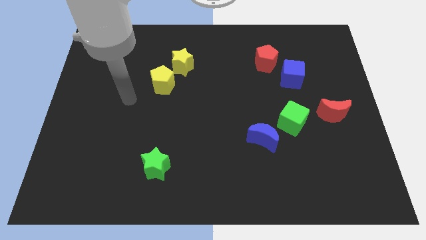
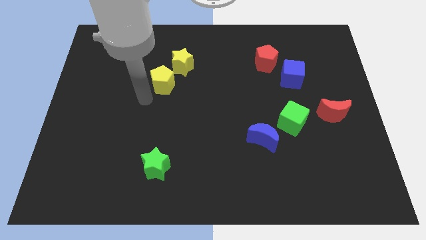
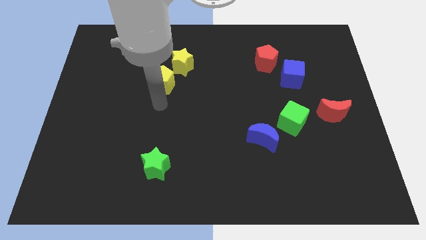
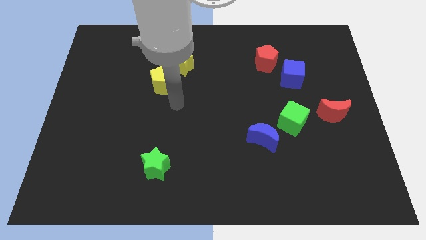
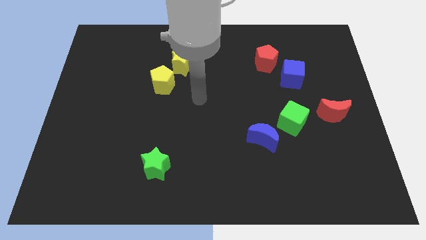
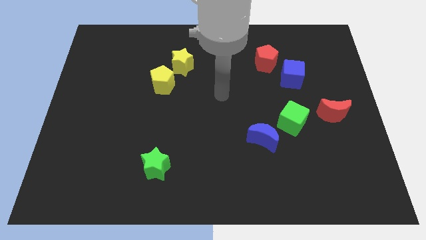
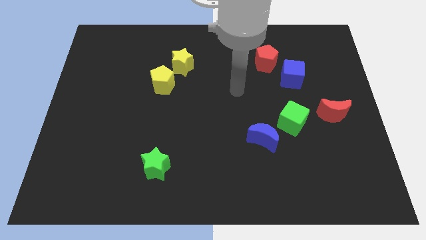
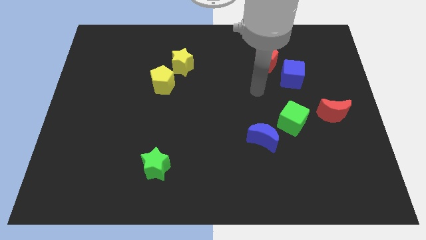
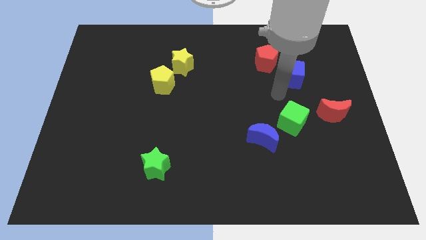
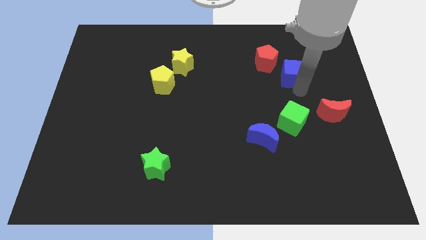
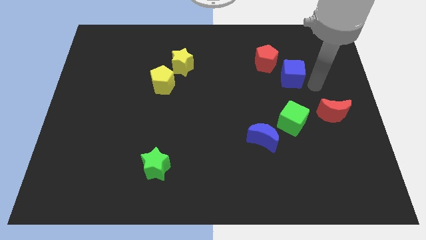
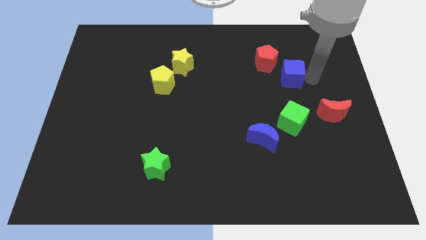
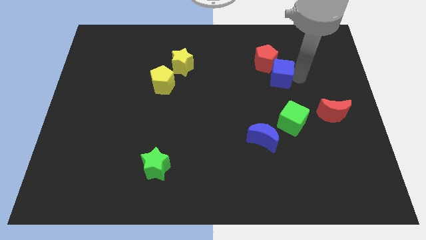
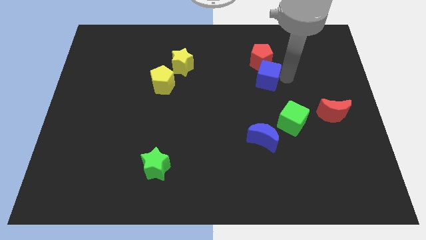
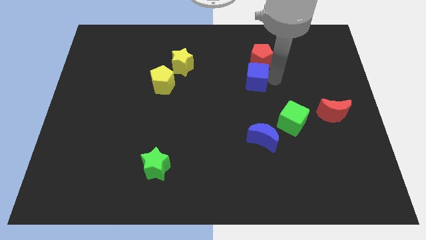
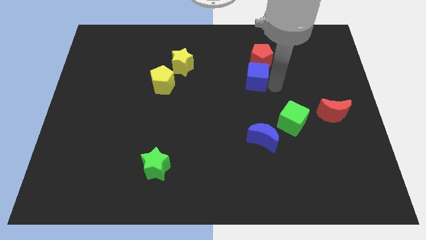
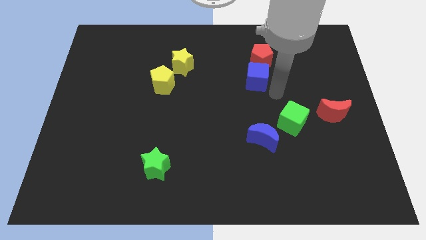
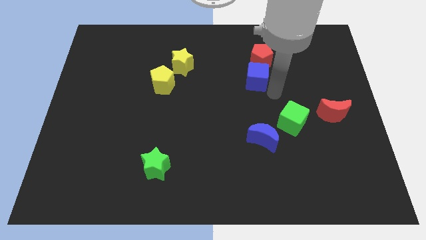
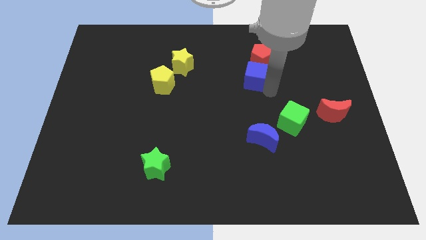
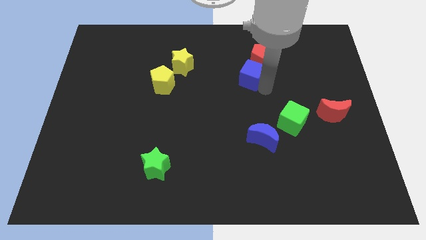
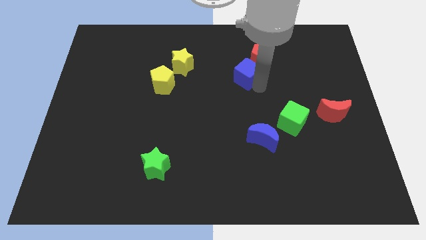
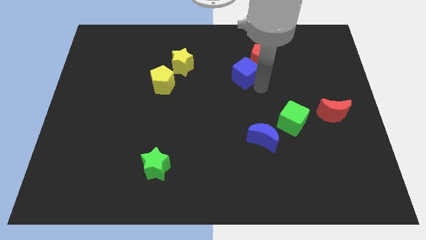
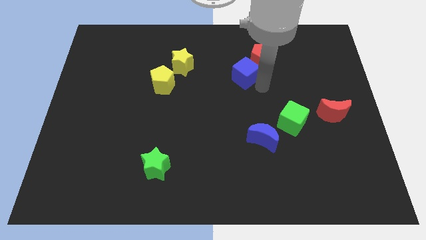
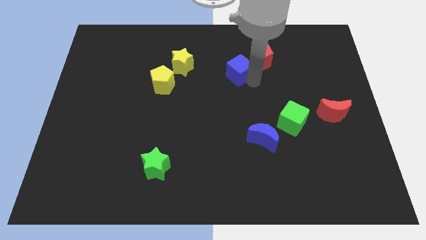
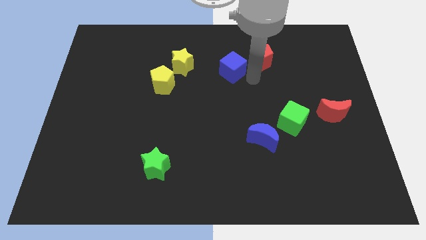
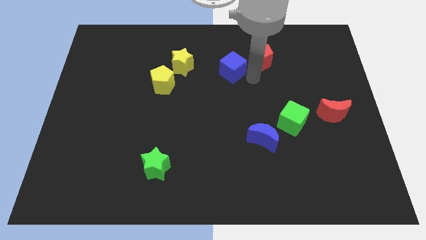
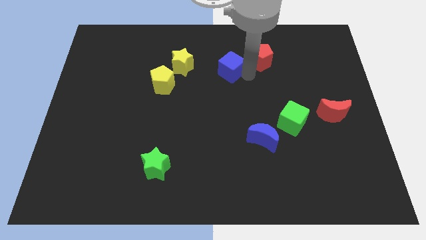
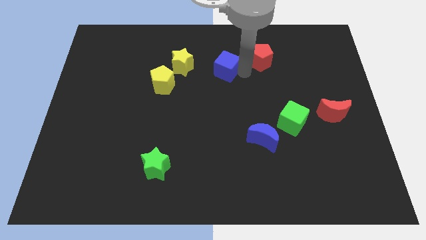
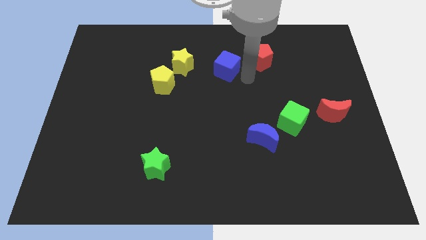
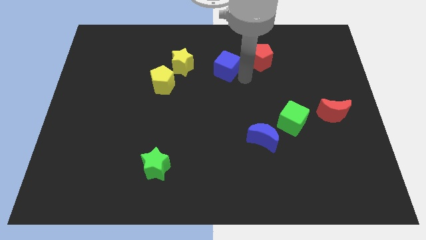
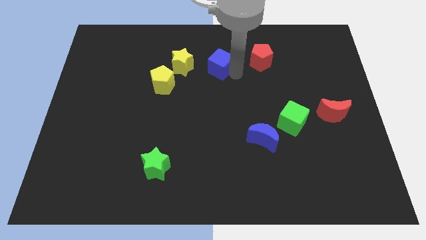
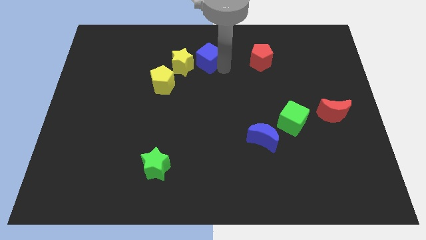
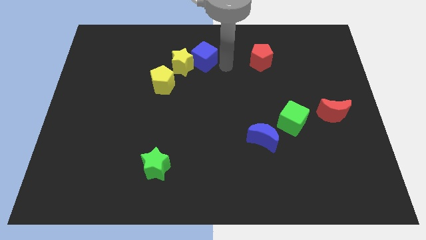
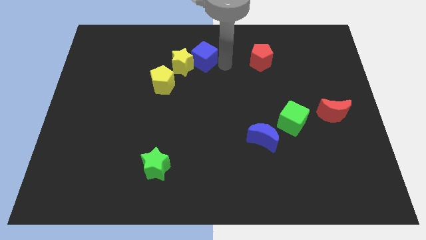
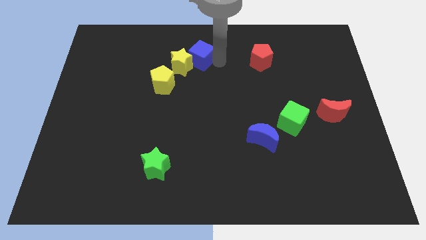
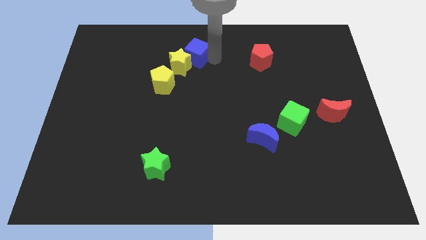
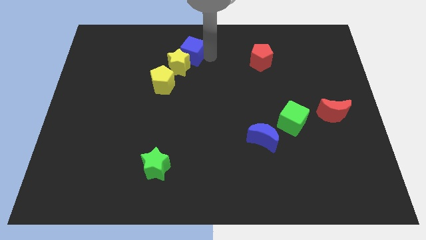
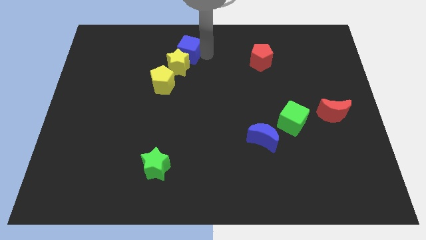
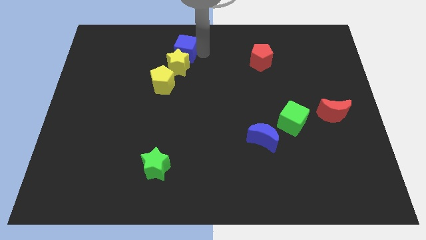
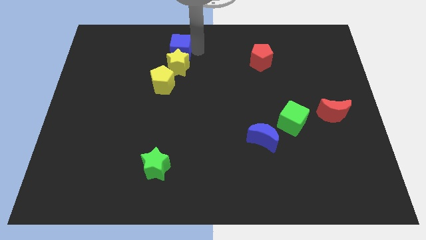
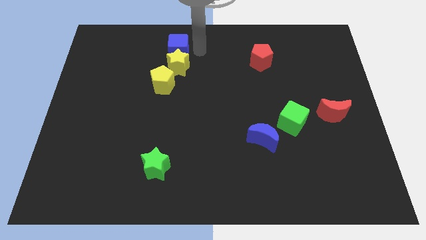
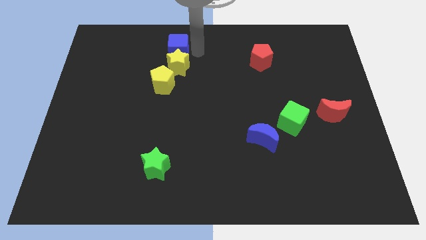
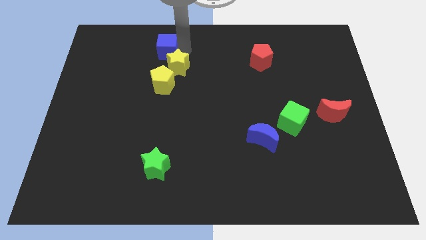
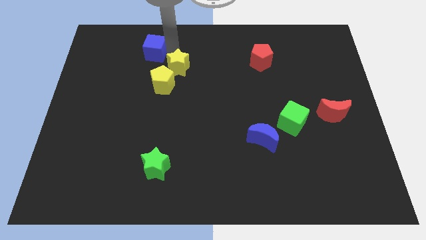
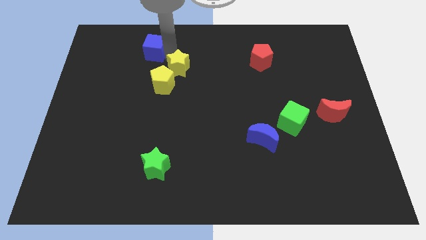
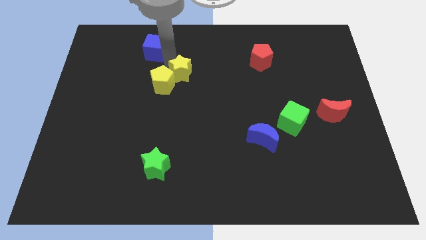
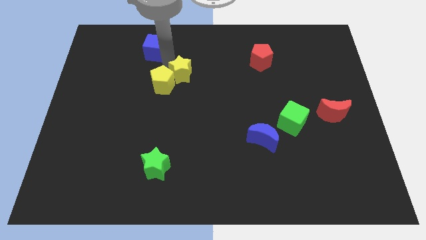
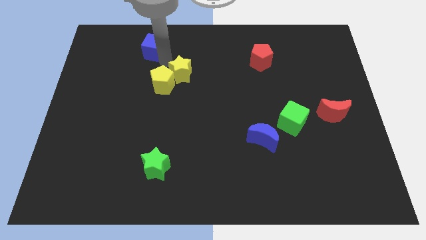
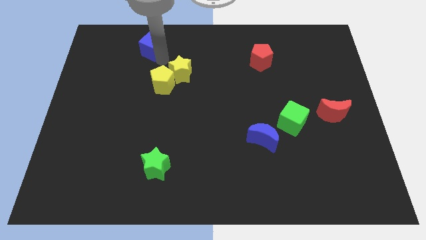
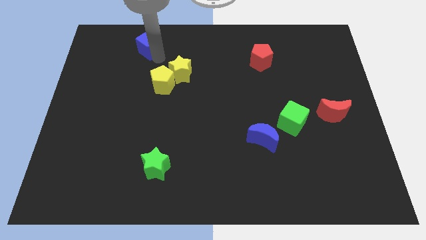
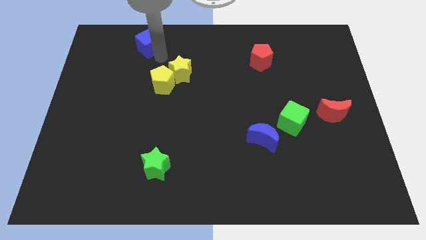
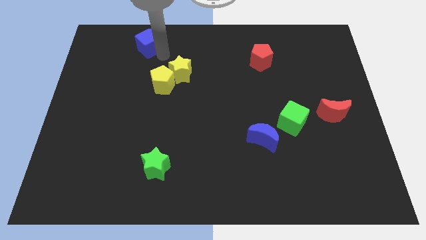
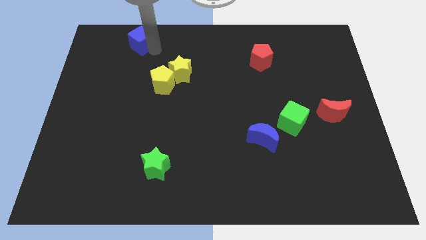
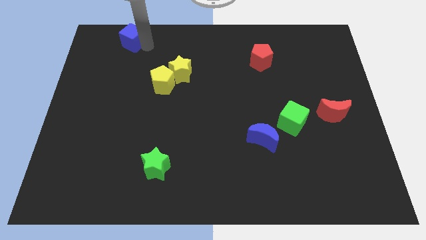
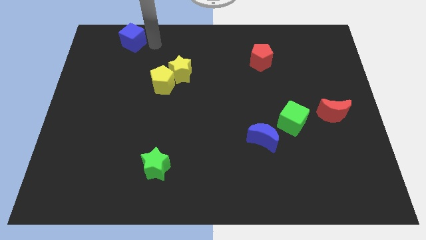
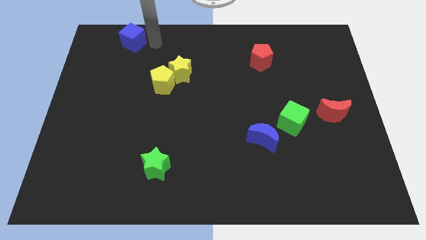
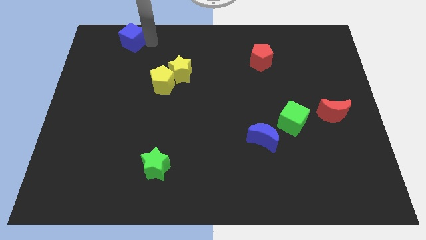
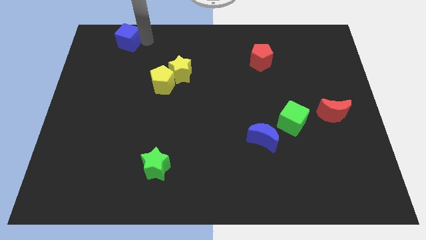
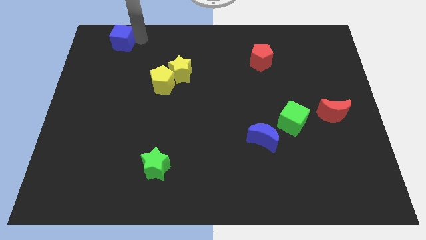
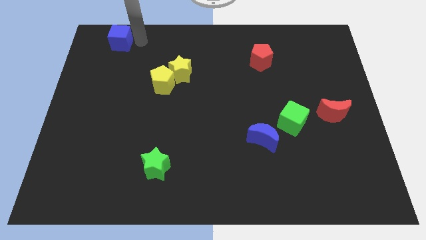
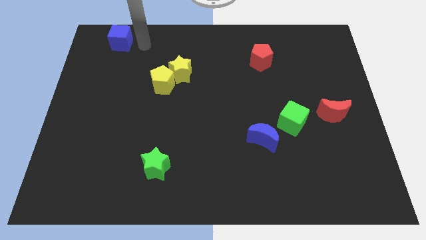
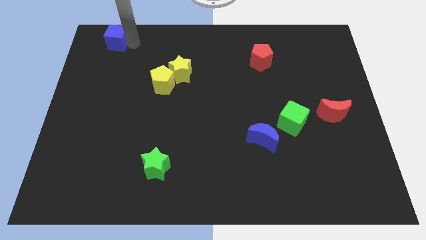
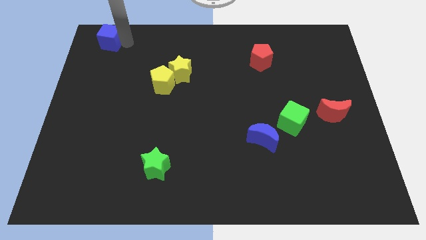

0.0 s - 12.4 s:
slide the blue cube to the top left of the board
